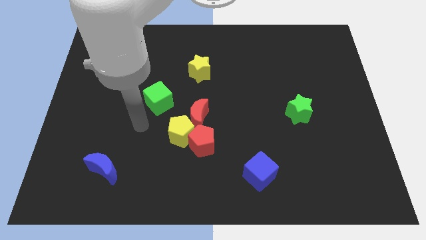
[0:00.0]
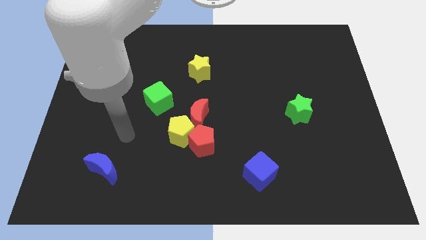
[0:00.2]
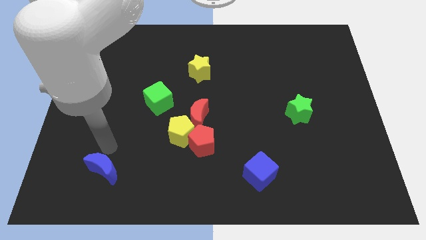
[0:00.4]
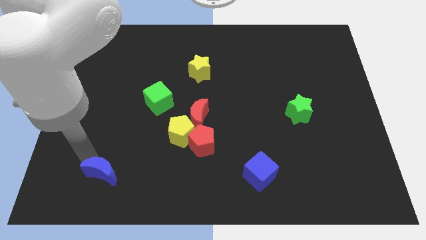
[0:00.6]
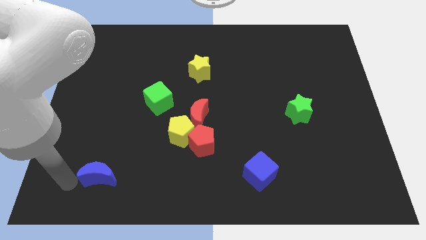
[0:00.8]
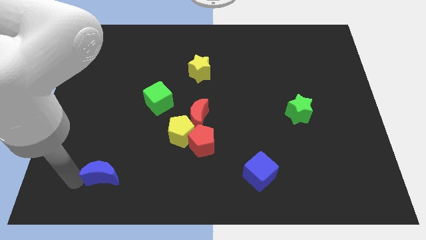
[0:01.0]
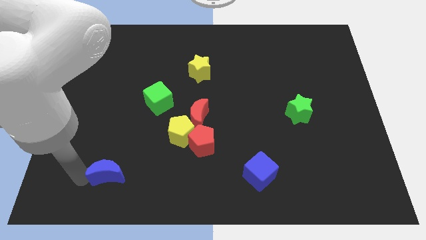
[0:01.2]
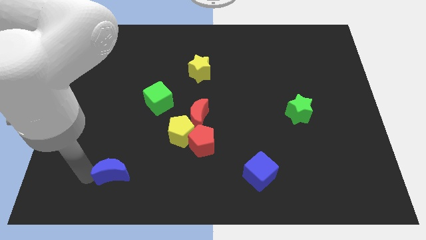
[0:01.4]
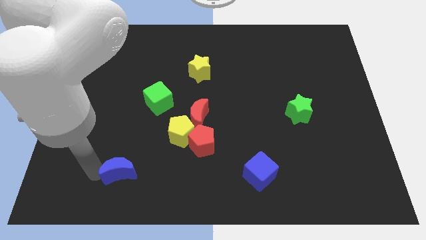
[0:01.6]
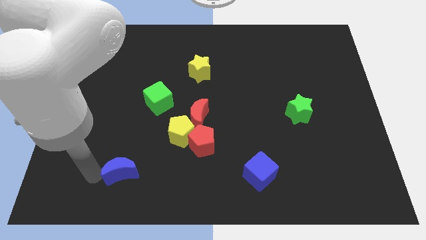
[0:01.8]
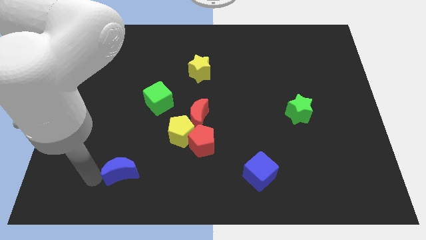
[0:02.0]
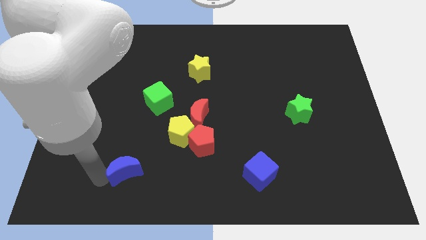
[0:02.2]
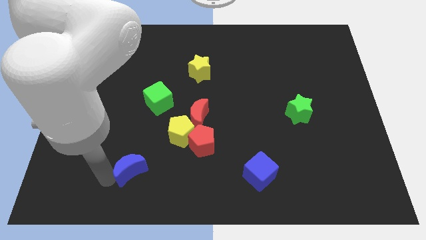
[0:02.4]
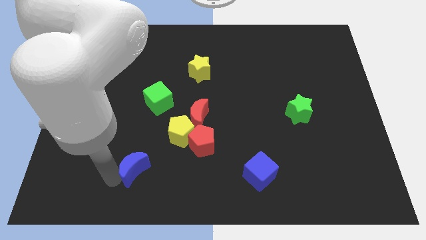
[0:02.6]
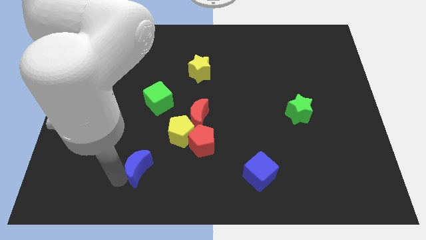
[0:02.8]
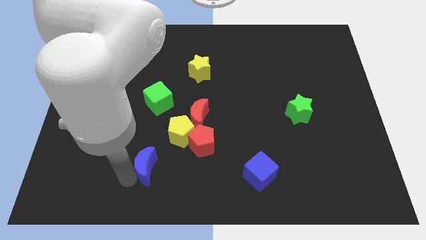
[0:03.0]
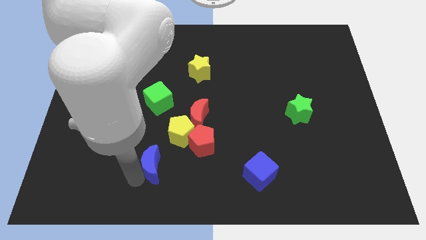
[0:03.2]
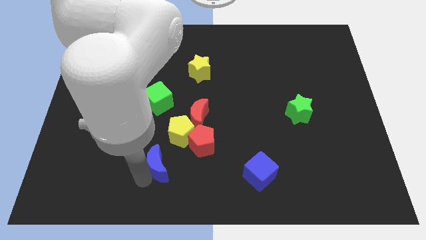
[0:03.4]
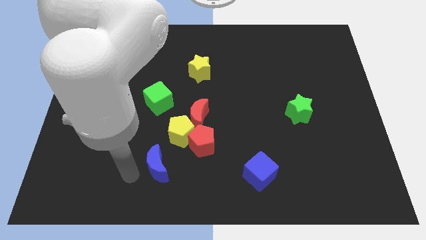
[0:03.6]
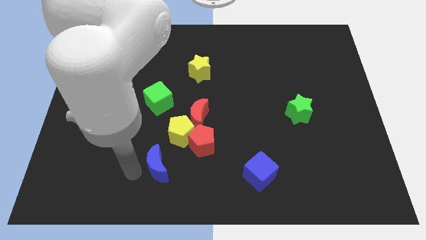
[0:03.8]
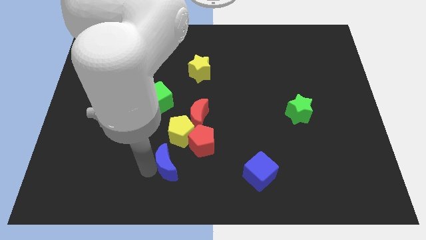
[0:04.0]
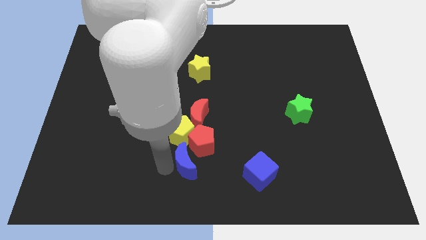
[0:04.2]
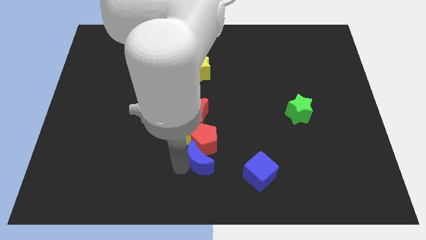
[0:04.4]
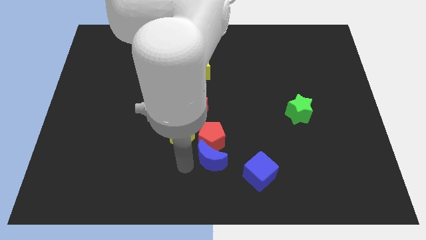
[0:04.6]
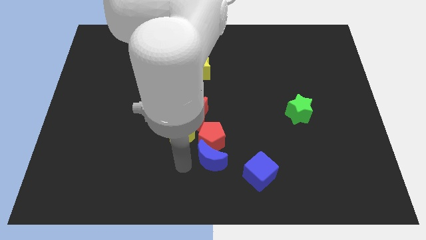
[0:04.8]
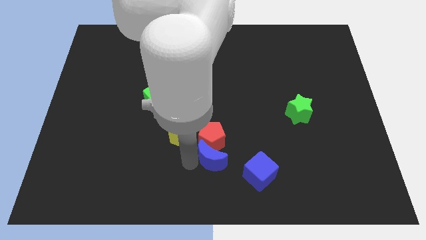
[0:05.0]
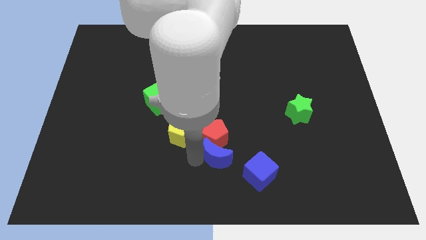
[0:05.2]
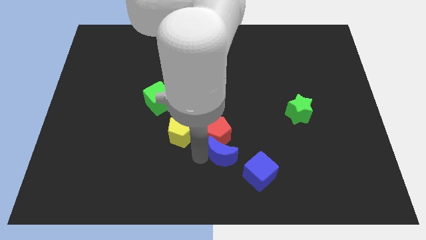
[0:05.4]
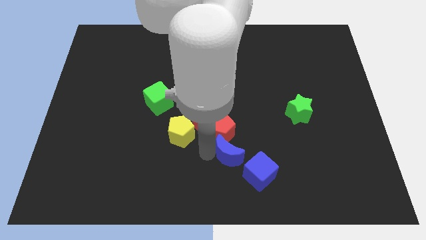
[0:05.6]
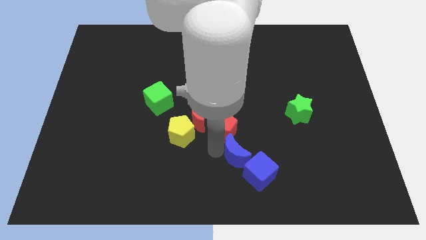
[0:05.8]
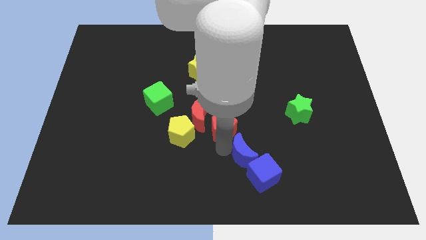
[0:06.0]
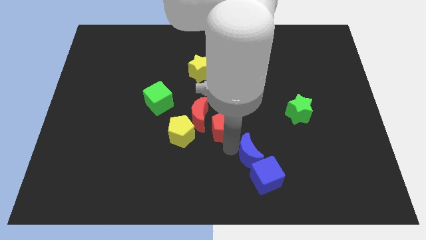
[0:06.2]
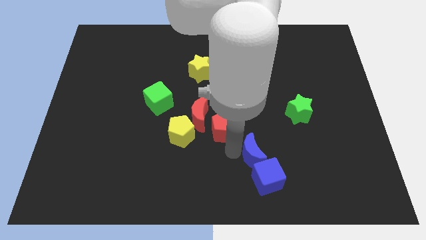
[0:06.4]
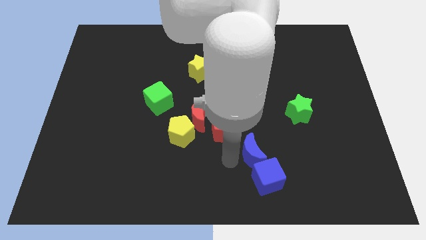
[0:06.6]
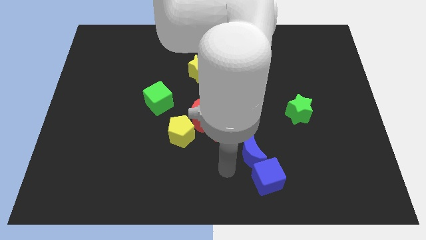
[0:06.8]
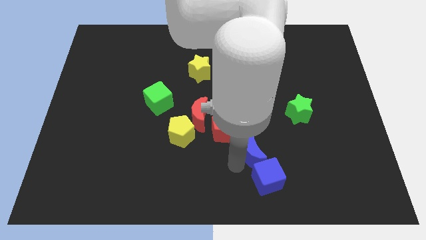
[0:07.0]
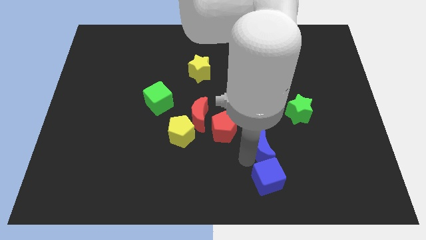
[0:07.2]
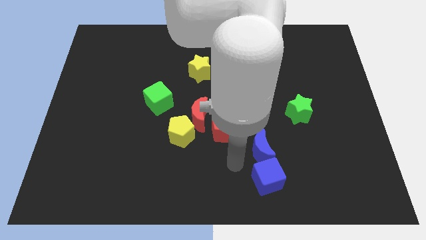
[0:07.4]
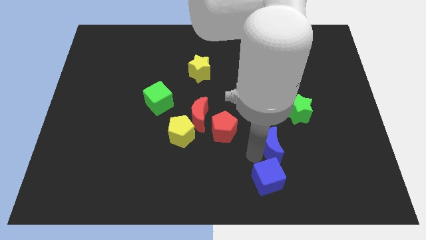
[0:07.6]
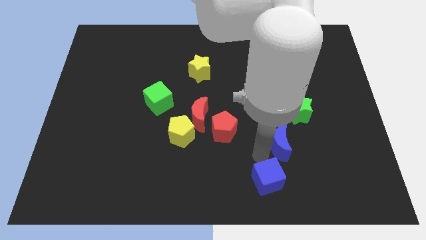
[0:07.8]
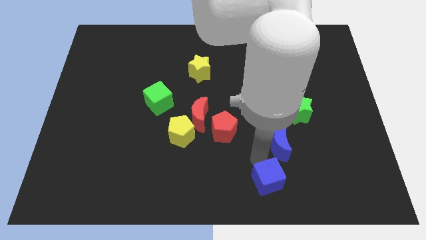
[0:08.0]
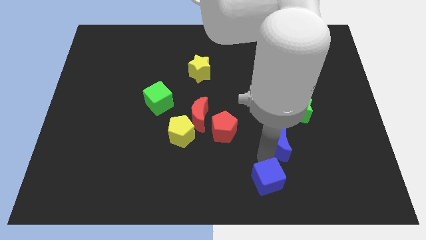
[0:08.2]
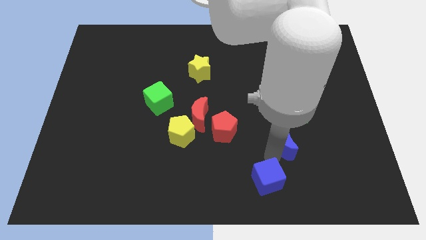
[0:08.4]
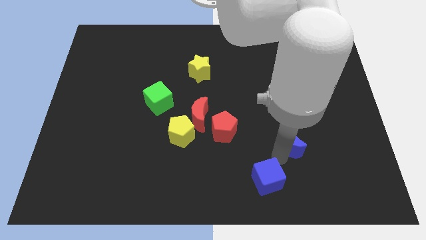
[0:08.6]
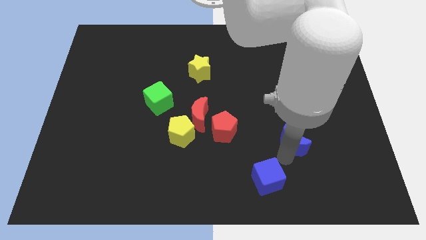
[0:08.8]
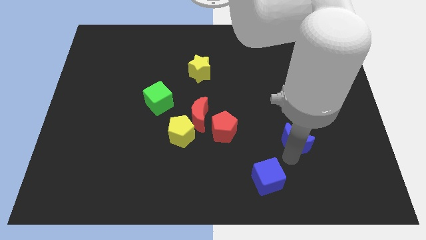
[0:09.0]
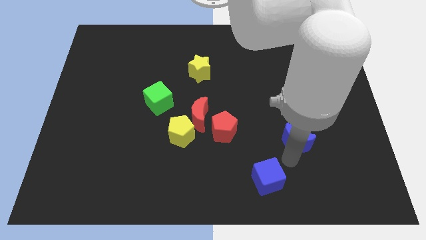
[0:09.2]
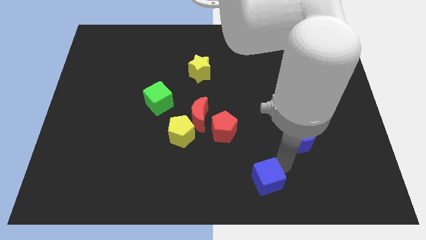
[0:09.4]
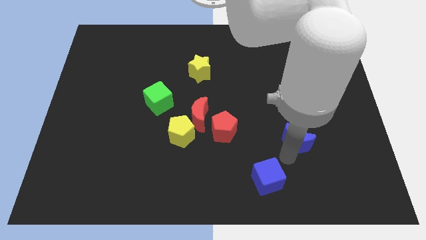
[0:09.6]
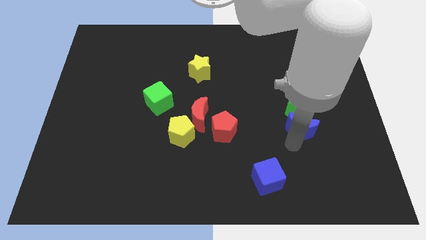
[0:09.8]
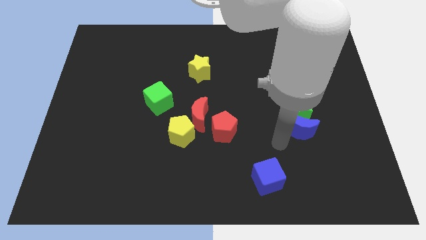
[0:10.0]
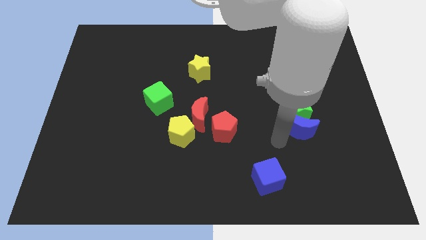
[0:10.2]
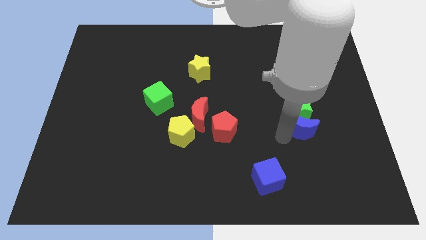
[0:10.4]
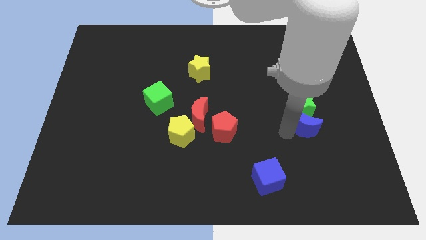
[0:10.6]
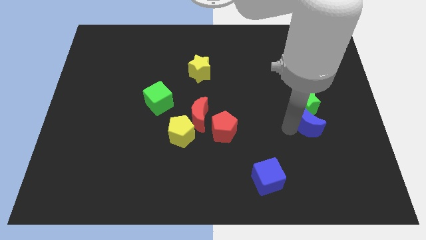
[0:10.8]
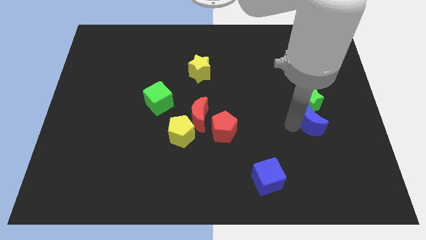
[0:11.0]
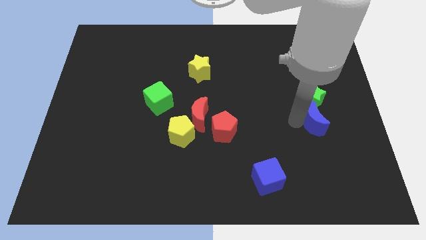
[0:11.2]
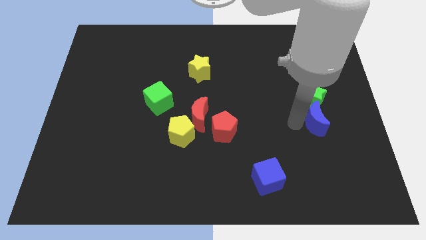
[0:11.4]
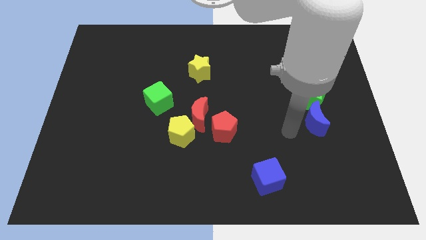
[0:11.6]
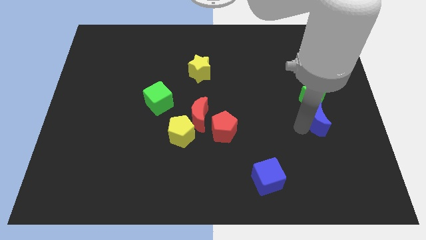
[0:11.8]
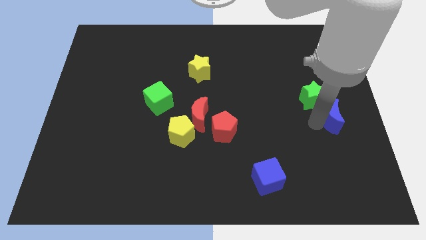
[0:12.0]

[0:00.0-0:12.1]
move the blue moon to the right side
